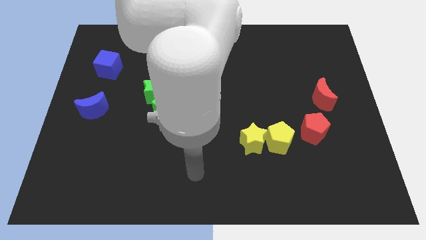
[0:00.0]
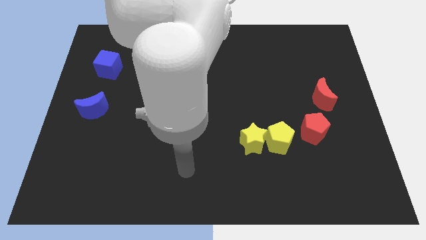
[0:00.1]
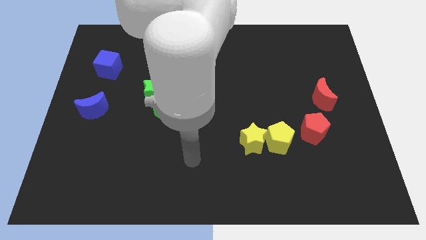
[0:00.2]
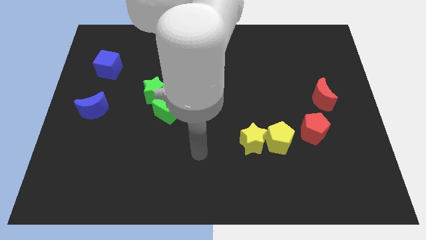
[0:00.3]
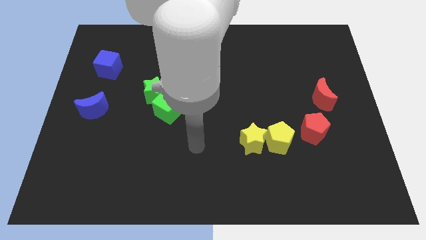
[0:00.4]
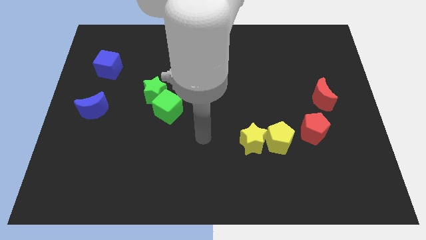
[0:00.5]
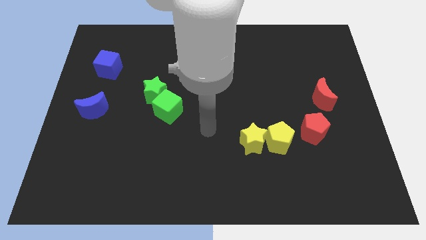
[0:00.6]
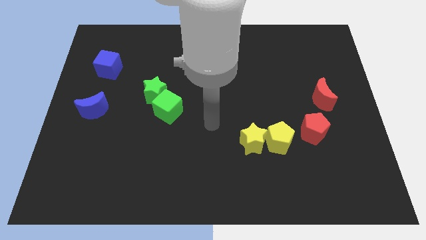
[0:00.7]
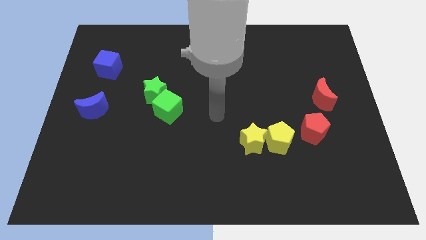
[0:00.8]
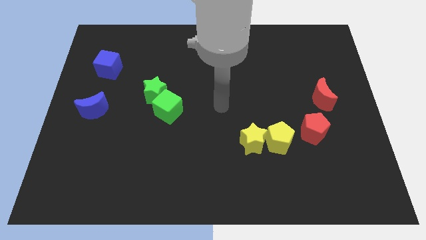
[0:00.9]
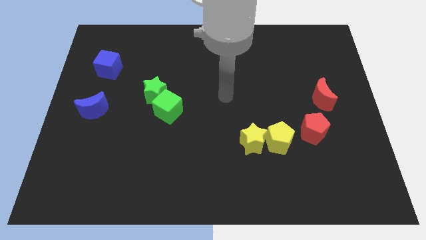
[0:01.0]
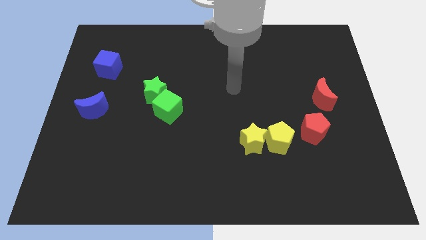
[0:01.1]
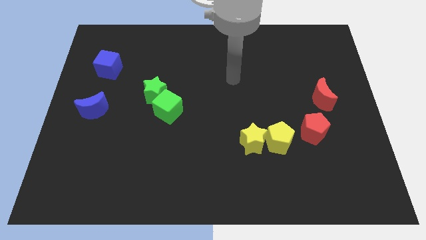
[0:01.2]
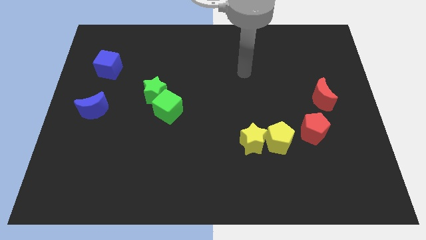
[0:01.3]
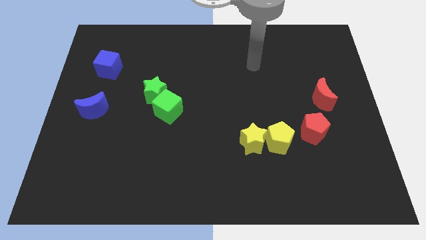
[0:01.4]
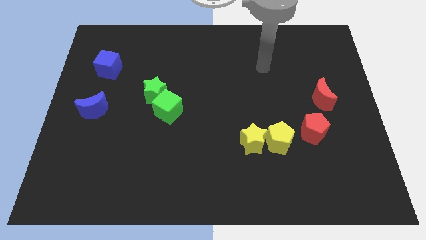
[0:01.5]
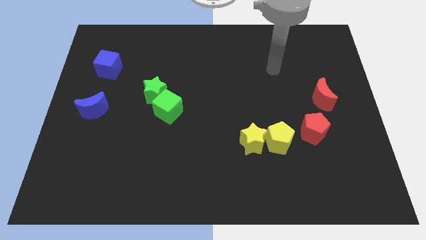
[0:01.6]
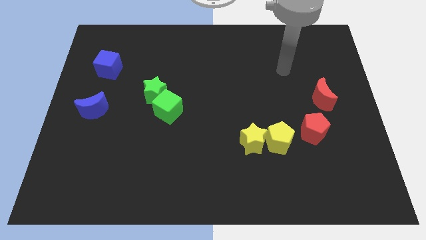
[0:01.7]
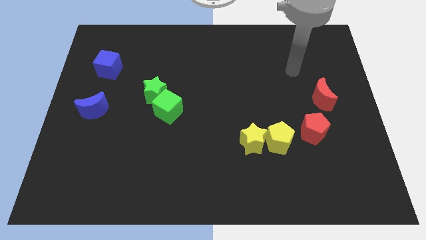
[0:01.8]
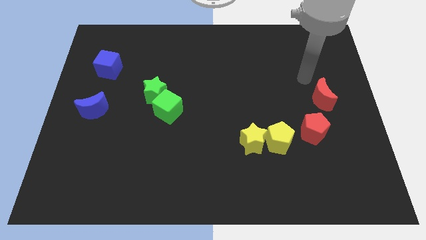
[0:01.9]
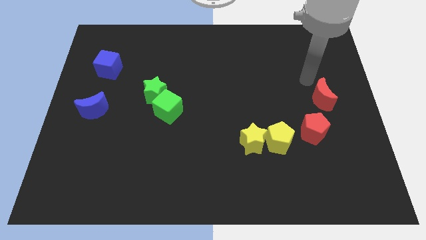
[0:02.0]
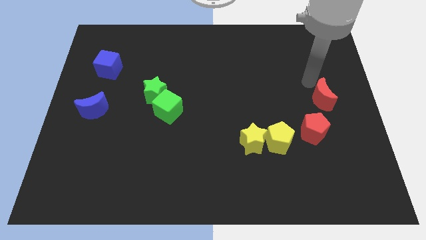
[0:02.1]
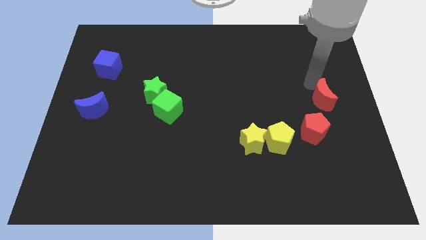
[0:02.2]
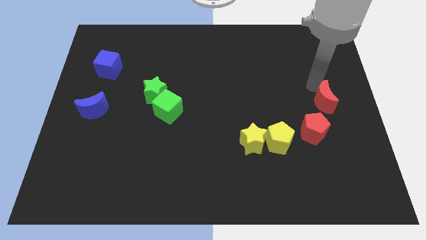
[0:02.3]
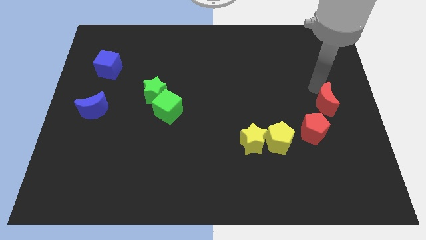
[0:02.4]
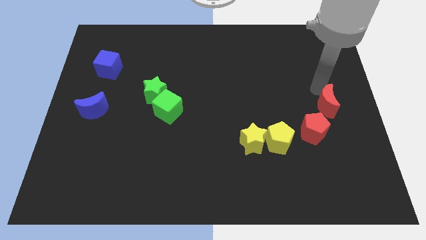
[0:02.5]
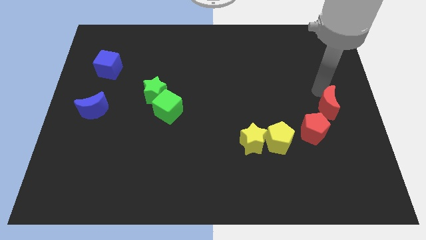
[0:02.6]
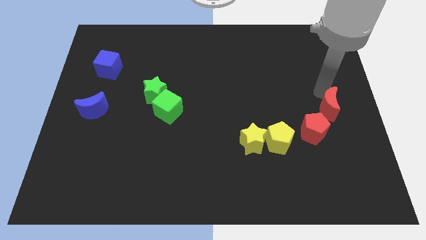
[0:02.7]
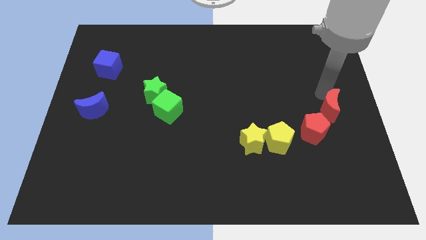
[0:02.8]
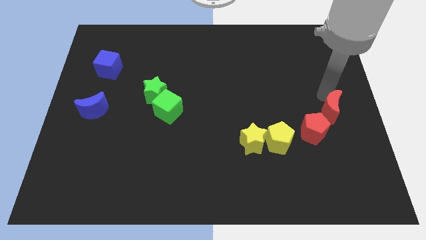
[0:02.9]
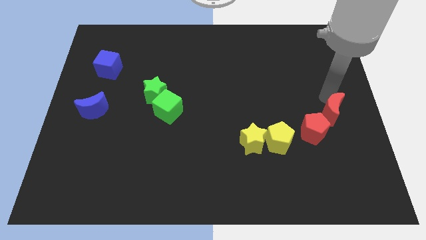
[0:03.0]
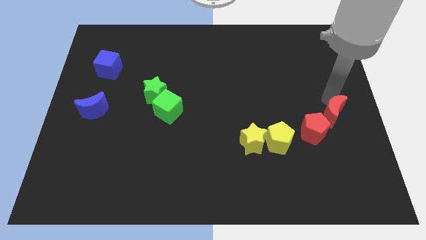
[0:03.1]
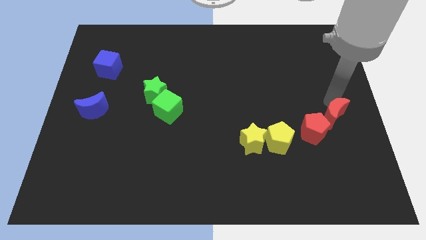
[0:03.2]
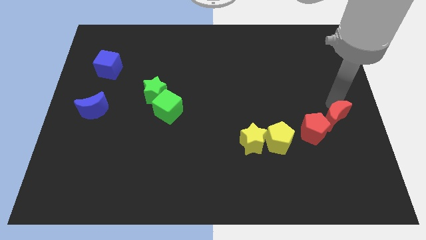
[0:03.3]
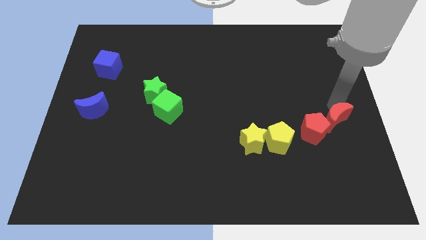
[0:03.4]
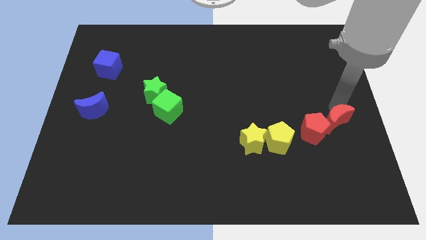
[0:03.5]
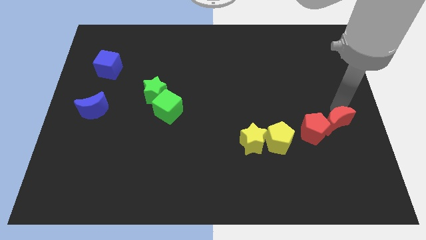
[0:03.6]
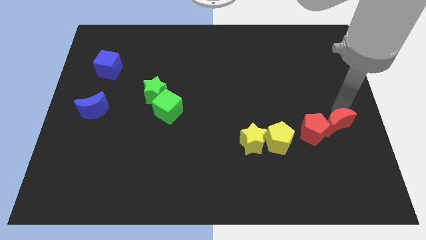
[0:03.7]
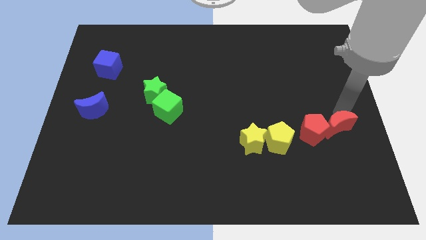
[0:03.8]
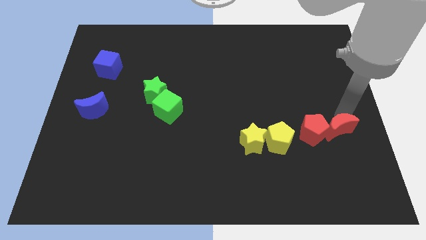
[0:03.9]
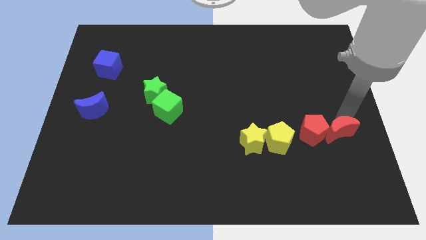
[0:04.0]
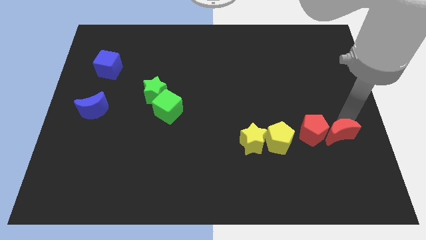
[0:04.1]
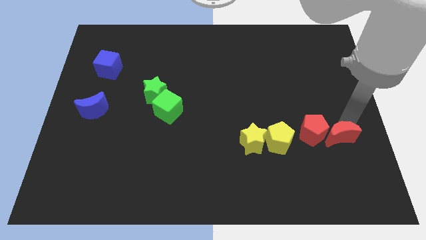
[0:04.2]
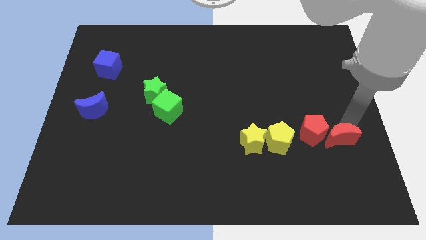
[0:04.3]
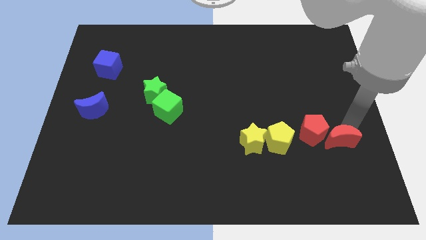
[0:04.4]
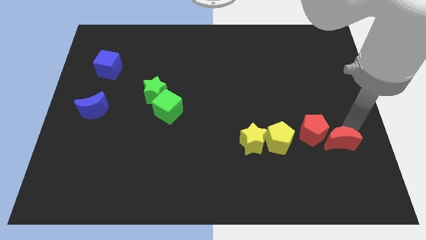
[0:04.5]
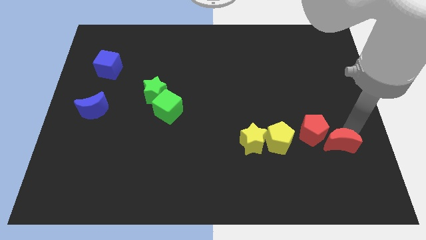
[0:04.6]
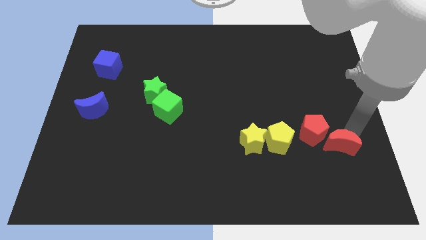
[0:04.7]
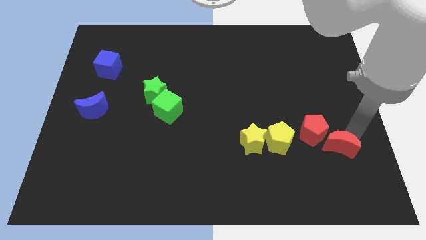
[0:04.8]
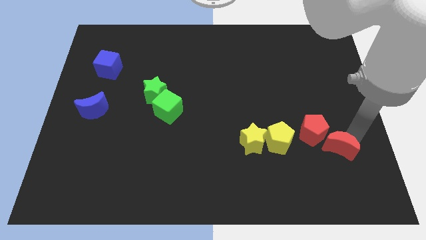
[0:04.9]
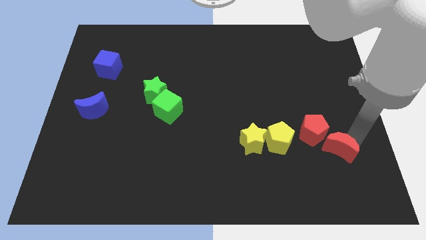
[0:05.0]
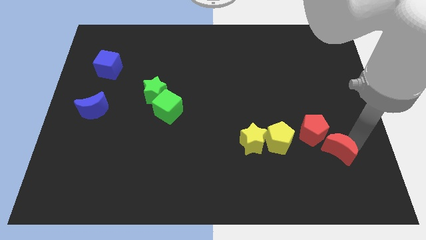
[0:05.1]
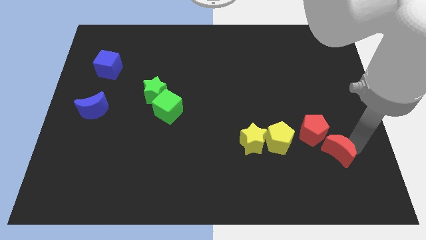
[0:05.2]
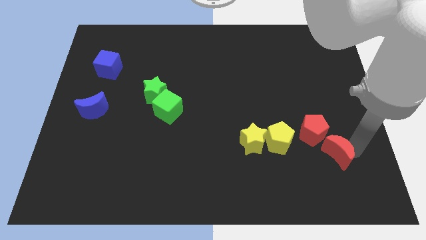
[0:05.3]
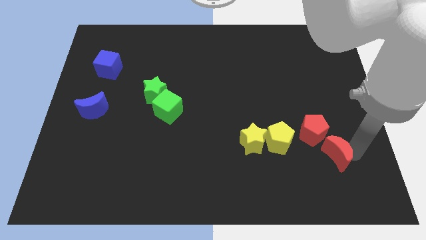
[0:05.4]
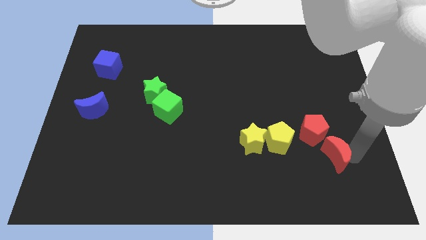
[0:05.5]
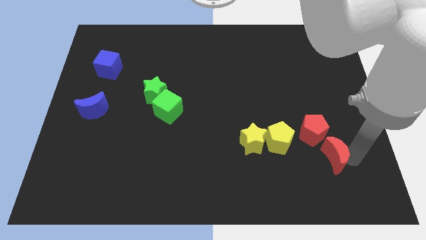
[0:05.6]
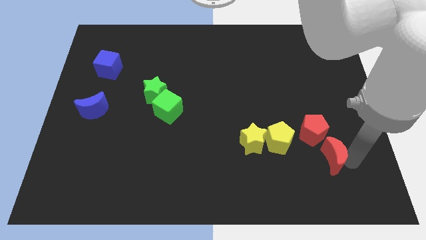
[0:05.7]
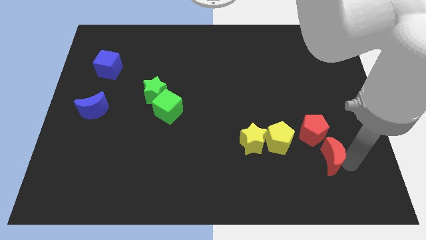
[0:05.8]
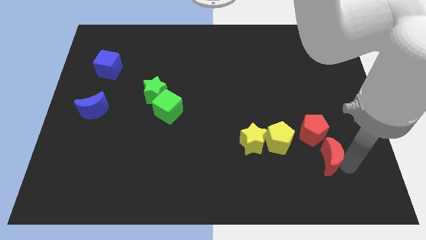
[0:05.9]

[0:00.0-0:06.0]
slide the red moon to the bottom right side of the yellow pentagon

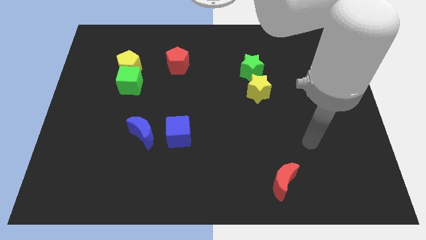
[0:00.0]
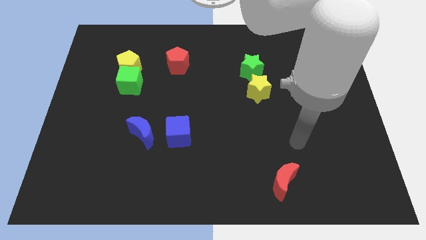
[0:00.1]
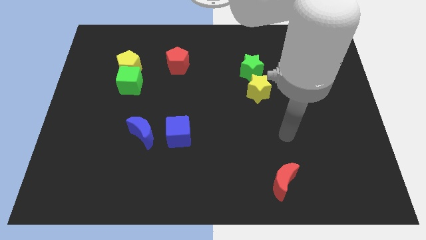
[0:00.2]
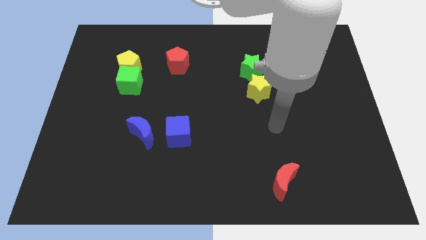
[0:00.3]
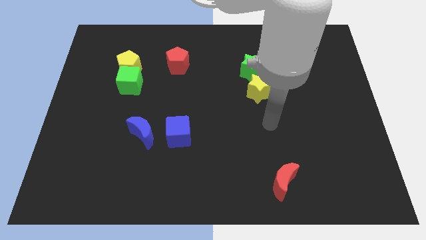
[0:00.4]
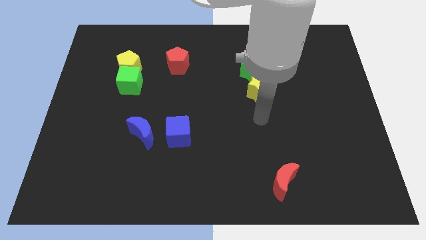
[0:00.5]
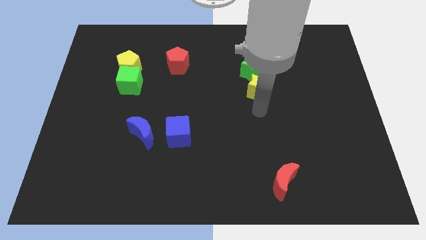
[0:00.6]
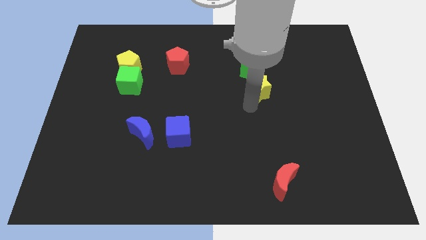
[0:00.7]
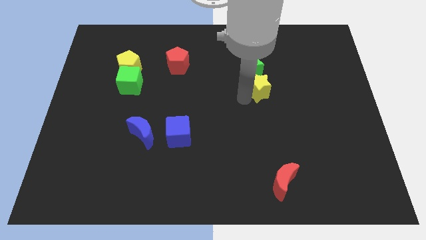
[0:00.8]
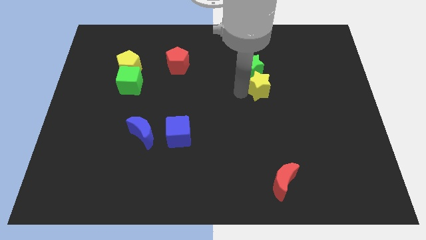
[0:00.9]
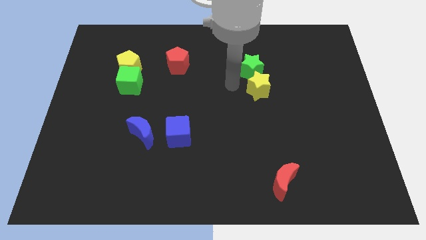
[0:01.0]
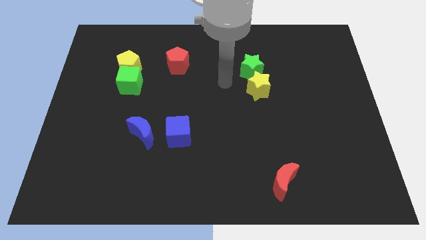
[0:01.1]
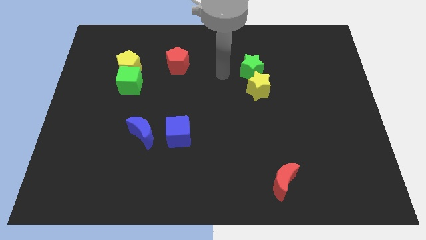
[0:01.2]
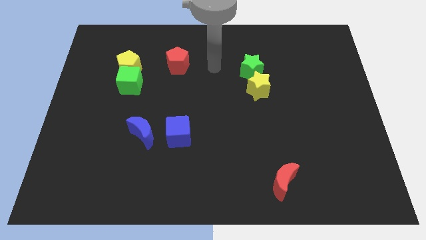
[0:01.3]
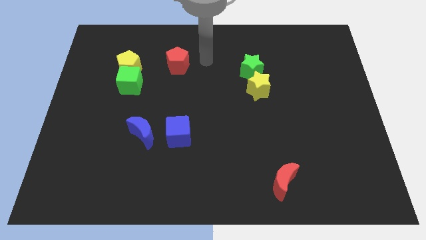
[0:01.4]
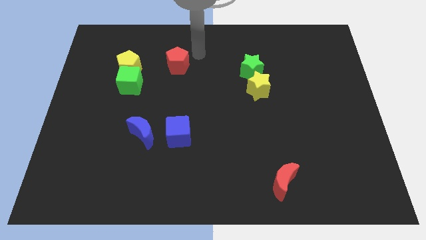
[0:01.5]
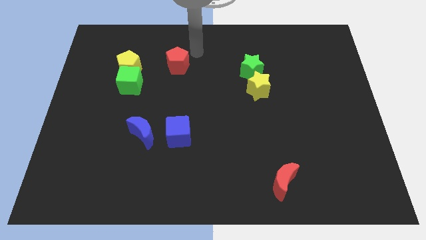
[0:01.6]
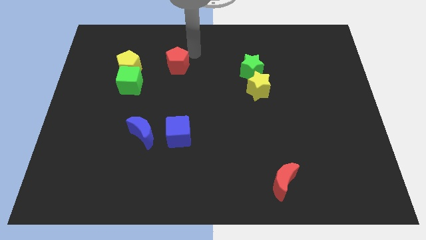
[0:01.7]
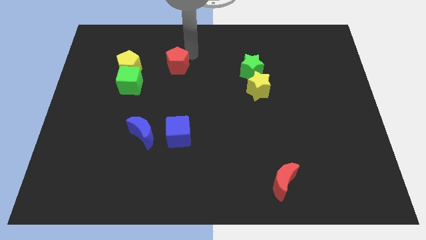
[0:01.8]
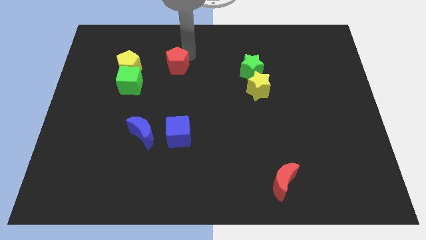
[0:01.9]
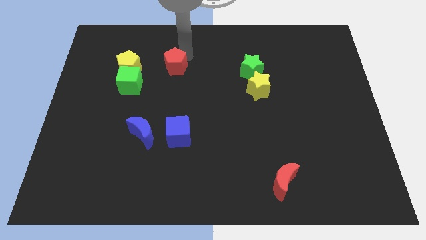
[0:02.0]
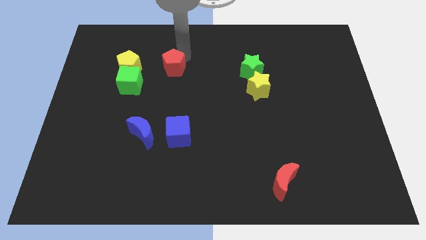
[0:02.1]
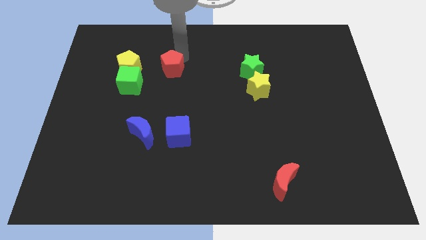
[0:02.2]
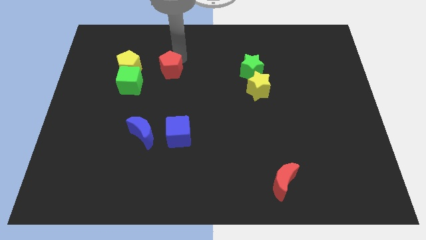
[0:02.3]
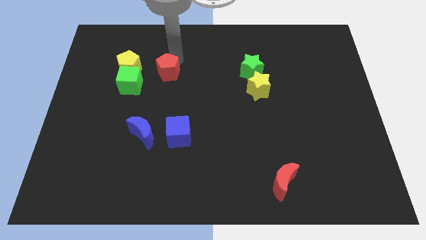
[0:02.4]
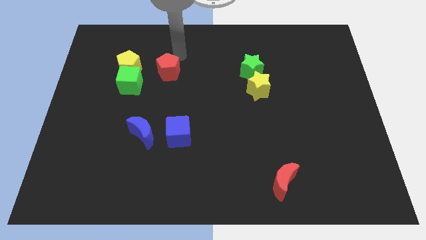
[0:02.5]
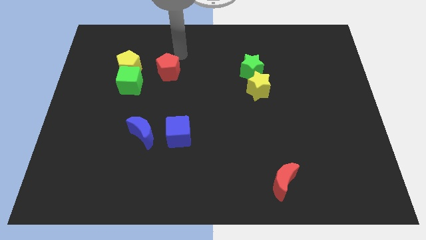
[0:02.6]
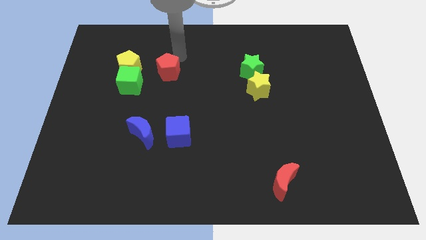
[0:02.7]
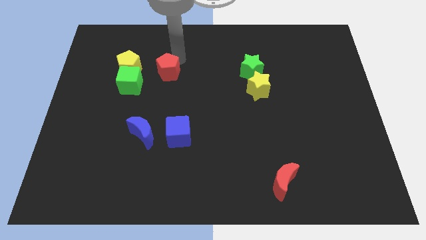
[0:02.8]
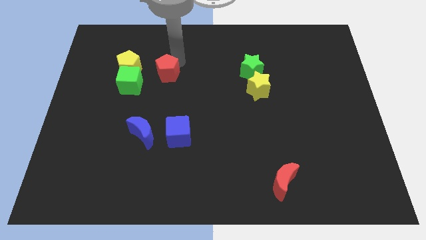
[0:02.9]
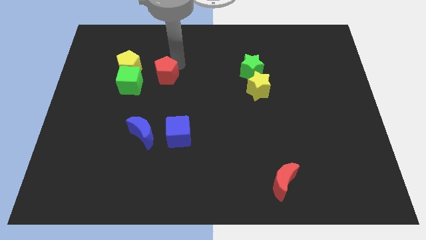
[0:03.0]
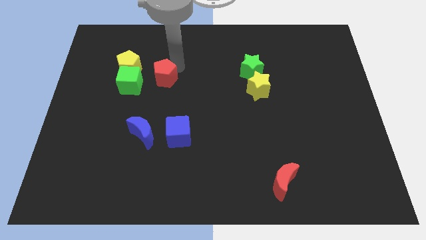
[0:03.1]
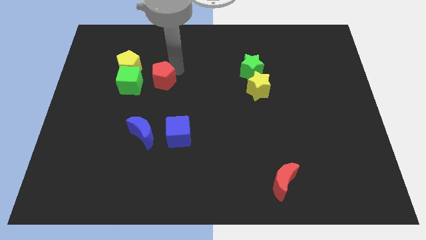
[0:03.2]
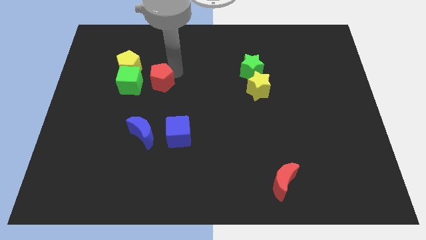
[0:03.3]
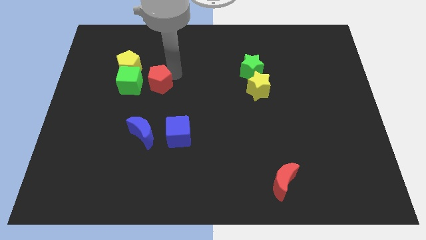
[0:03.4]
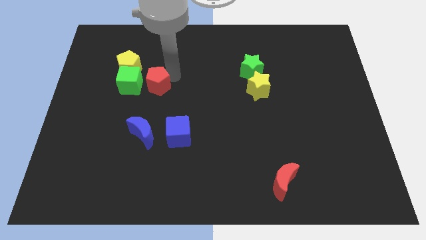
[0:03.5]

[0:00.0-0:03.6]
put the red pentagon to the bottom right of the green cube
